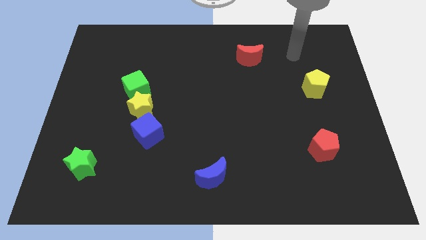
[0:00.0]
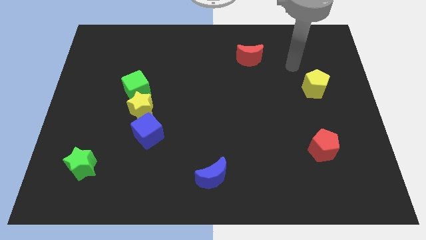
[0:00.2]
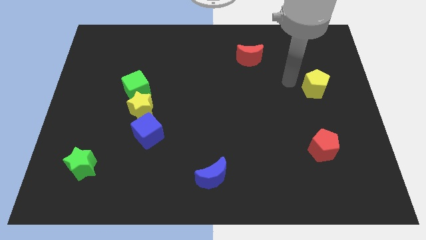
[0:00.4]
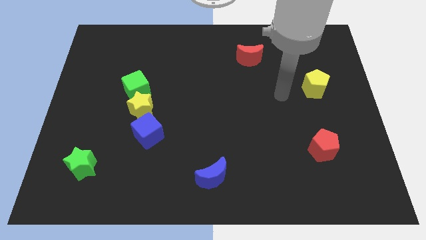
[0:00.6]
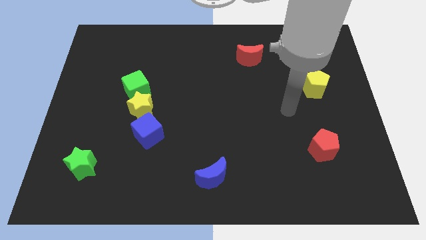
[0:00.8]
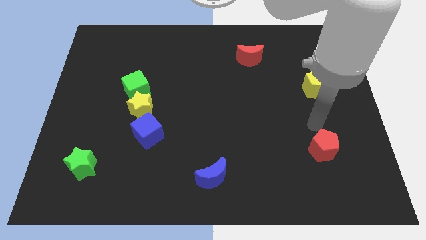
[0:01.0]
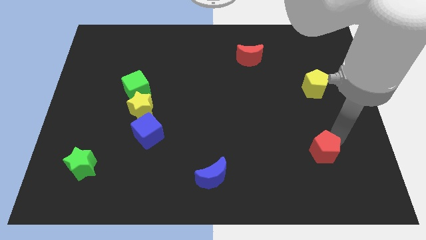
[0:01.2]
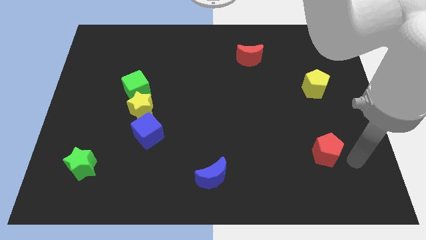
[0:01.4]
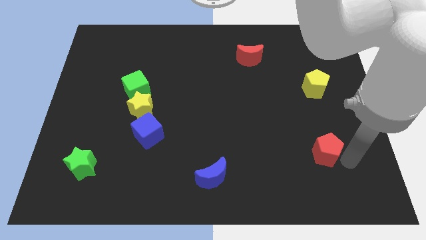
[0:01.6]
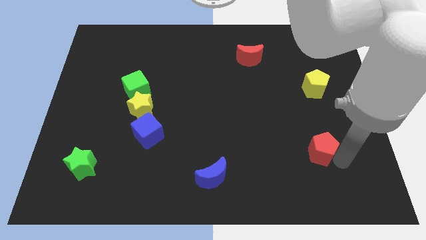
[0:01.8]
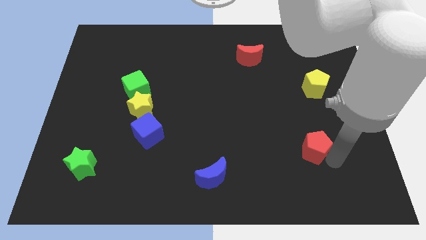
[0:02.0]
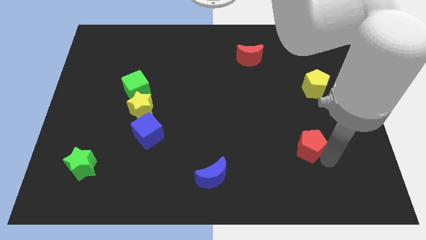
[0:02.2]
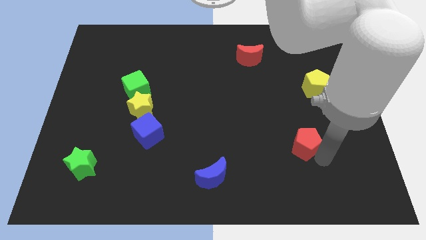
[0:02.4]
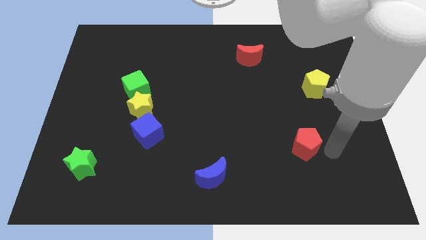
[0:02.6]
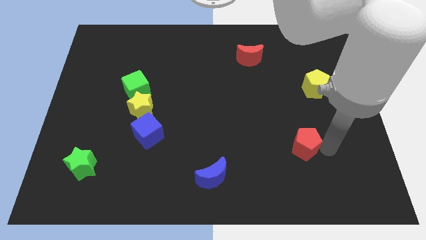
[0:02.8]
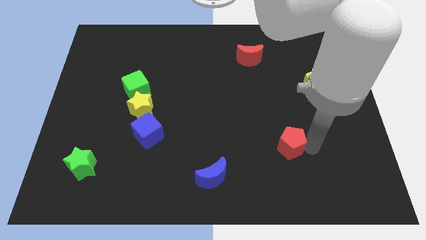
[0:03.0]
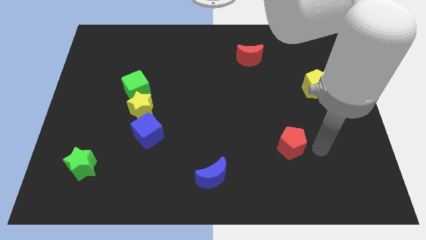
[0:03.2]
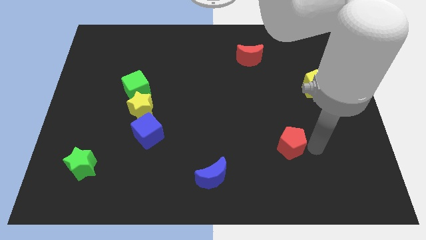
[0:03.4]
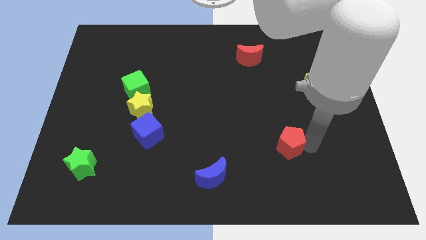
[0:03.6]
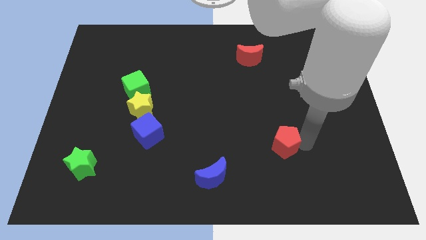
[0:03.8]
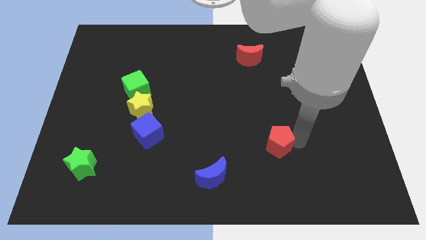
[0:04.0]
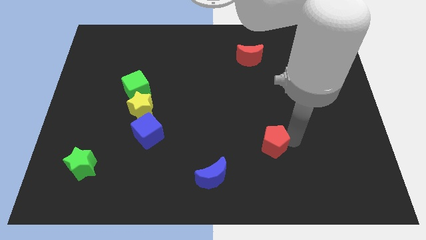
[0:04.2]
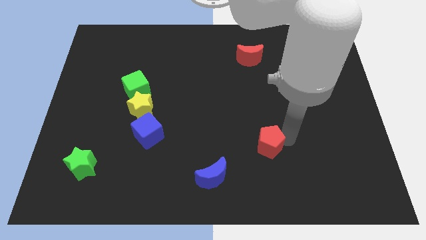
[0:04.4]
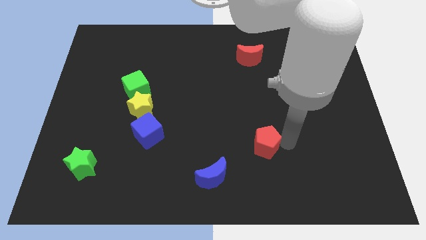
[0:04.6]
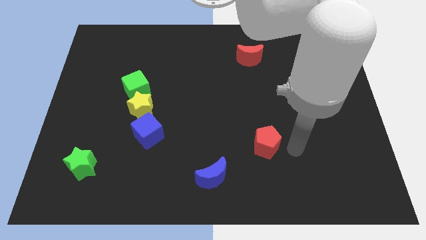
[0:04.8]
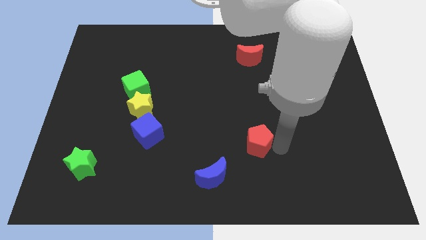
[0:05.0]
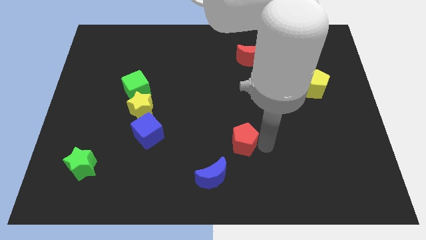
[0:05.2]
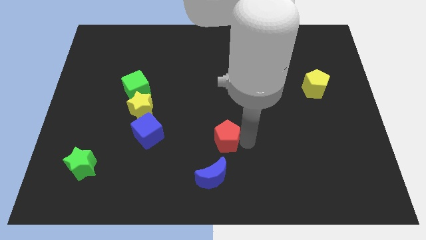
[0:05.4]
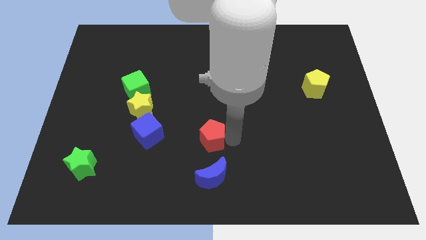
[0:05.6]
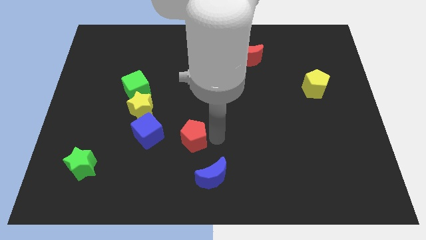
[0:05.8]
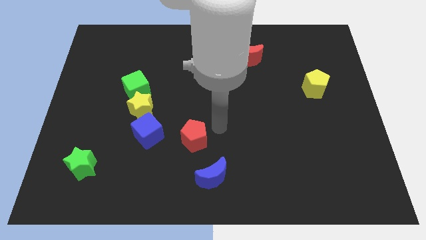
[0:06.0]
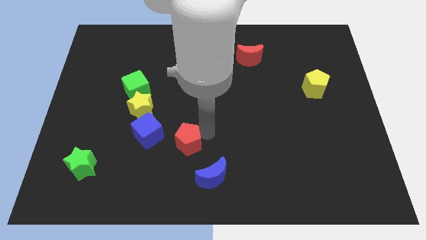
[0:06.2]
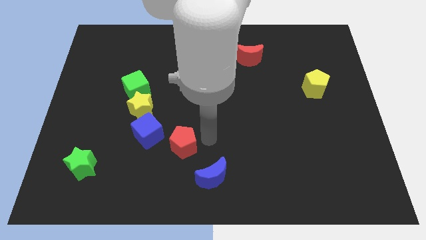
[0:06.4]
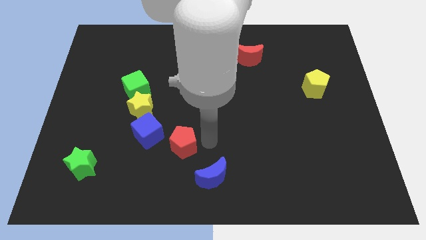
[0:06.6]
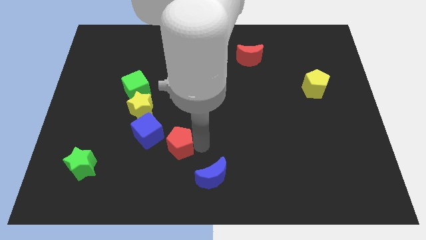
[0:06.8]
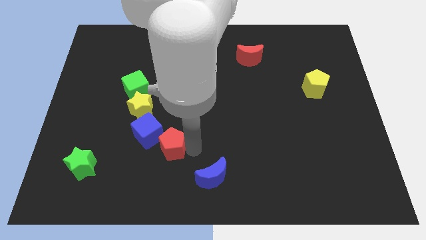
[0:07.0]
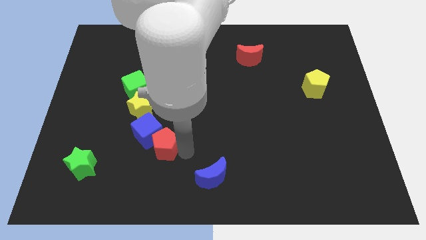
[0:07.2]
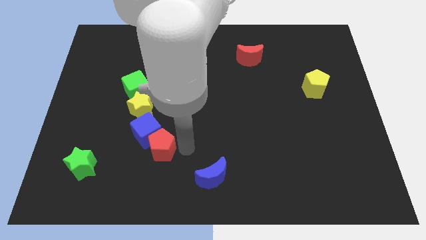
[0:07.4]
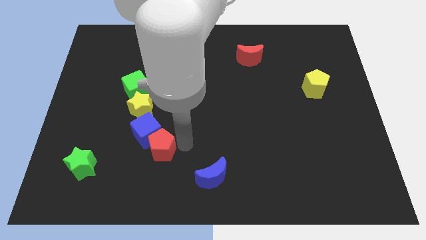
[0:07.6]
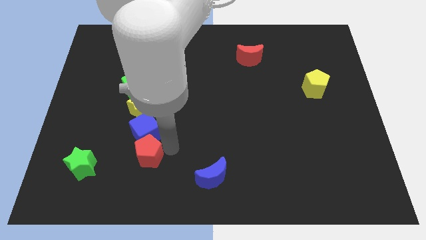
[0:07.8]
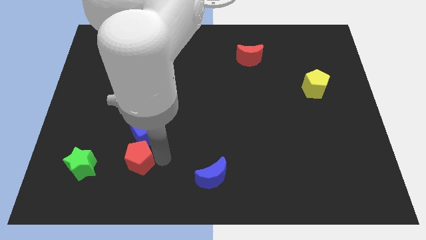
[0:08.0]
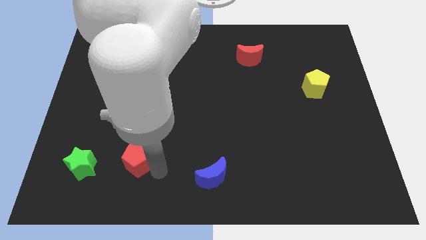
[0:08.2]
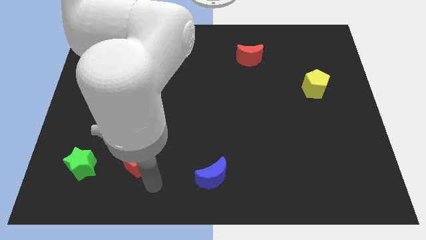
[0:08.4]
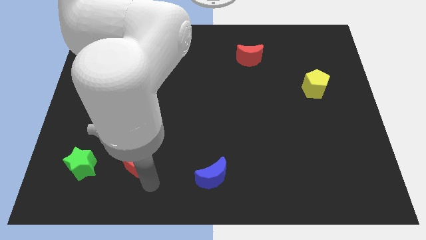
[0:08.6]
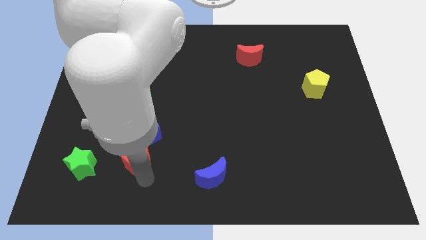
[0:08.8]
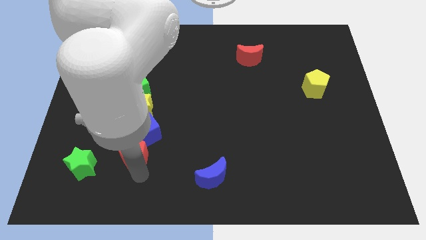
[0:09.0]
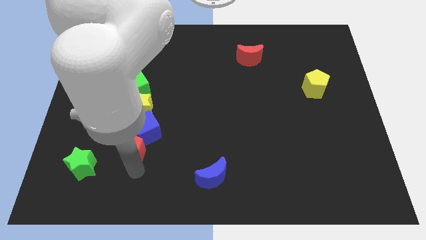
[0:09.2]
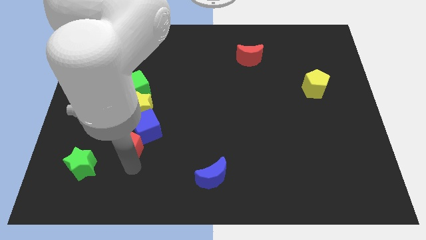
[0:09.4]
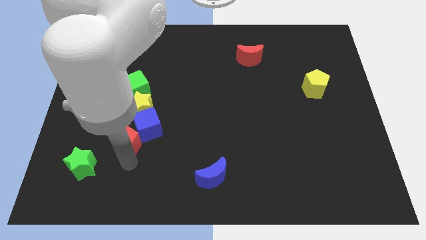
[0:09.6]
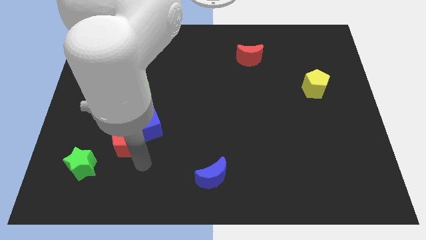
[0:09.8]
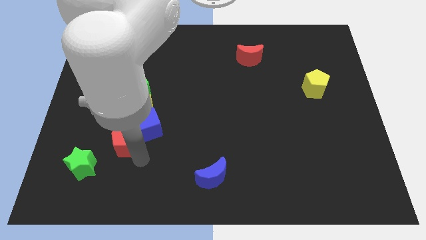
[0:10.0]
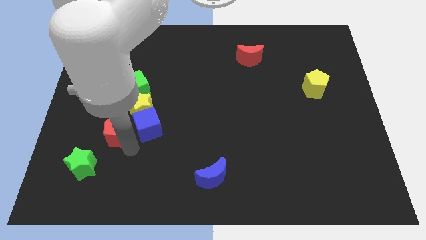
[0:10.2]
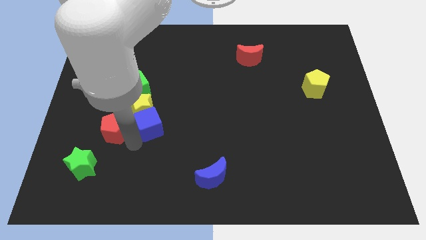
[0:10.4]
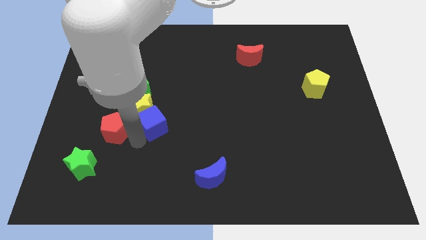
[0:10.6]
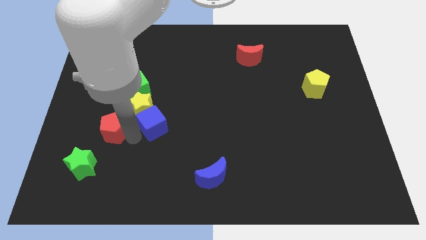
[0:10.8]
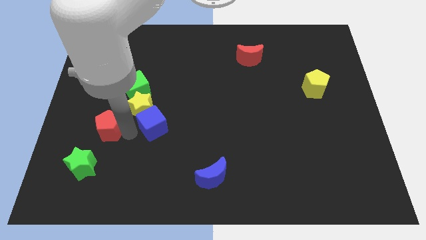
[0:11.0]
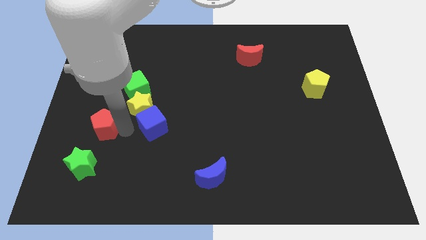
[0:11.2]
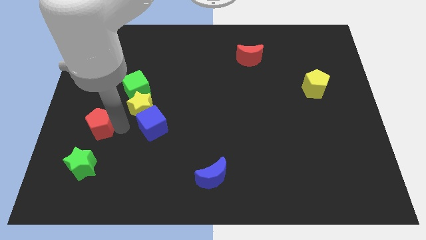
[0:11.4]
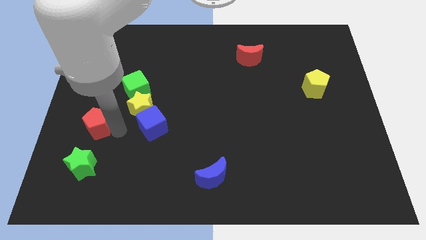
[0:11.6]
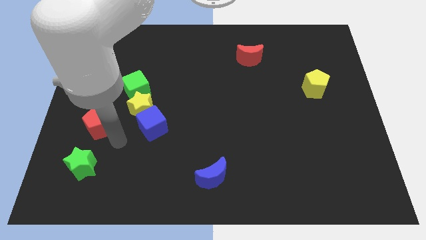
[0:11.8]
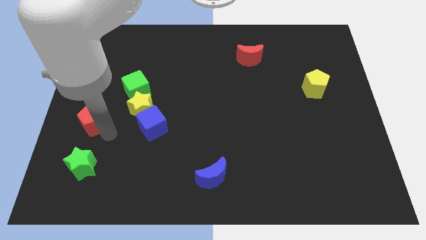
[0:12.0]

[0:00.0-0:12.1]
move the red pentagon to the left side

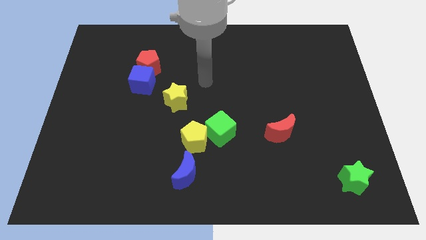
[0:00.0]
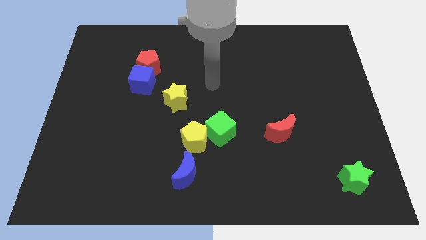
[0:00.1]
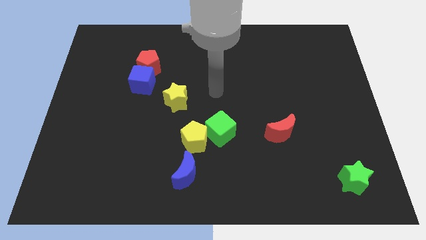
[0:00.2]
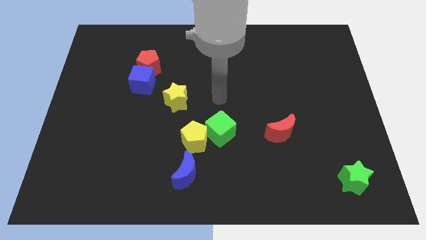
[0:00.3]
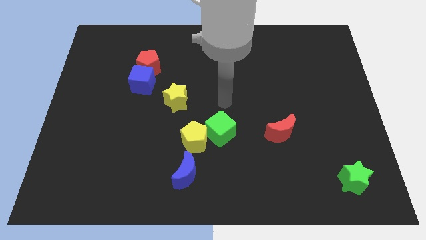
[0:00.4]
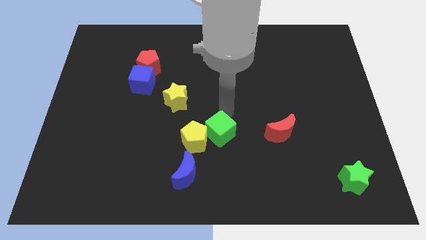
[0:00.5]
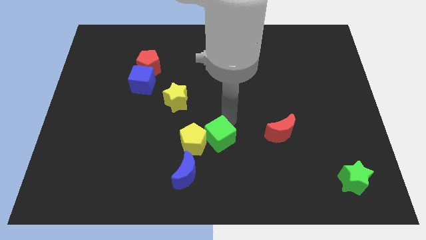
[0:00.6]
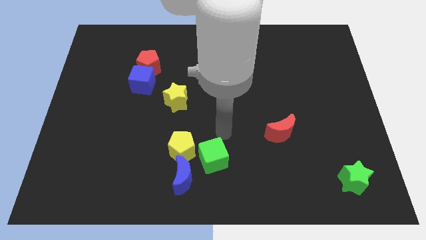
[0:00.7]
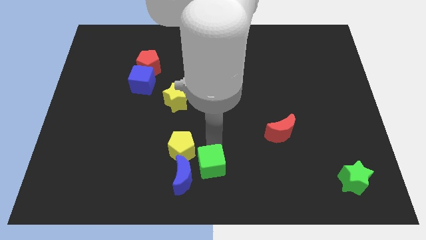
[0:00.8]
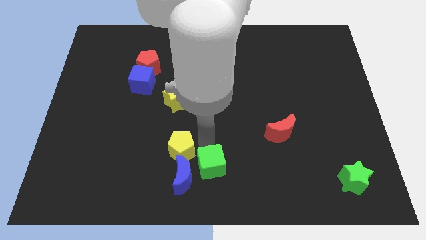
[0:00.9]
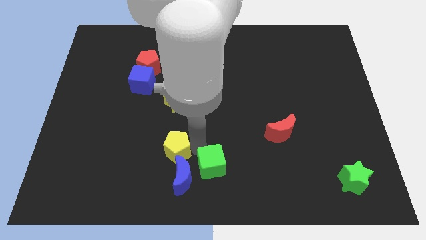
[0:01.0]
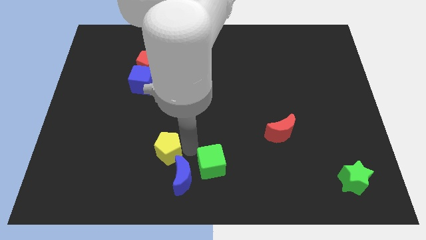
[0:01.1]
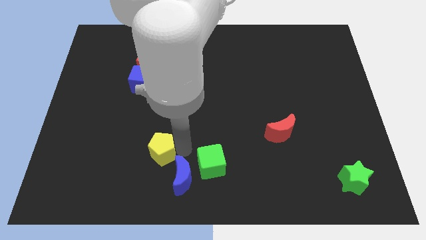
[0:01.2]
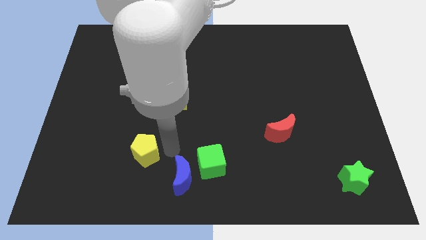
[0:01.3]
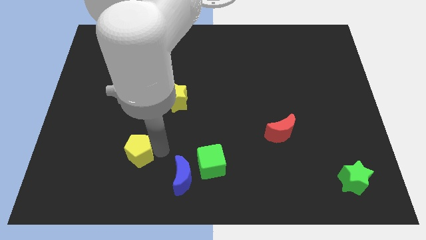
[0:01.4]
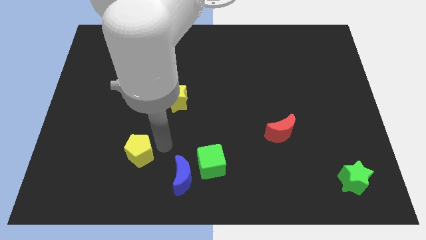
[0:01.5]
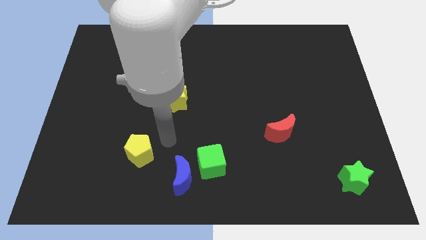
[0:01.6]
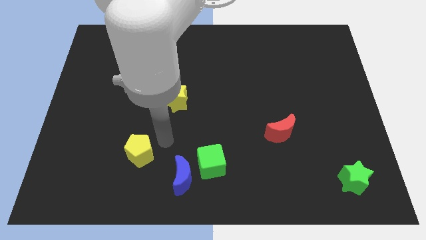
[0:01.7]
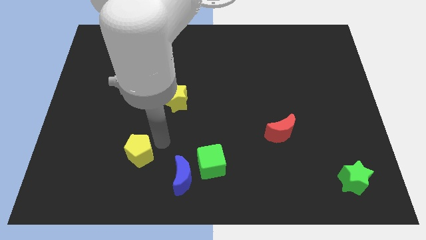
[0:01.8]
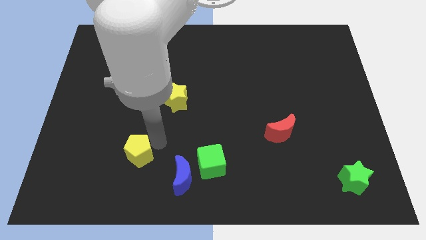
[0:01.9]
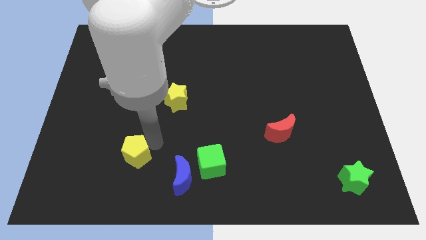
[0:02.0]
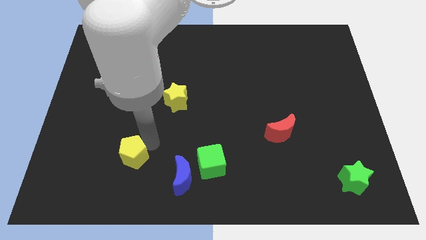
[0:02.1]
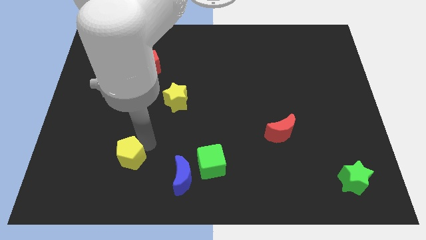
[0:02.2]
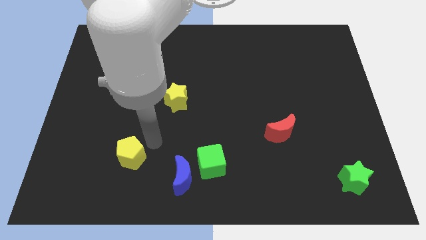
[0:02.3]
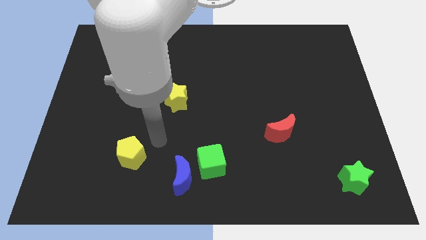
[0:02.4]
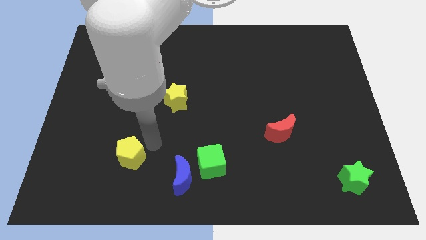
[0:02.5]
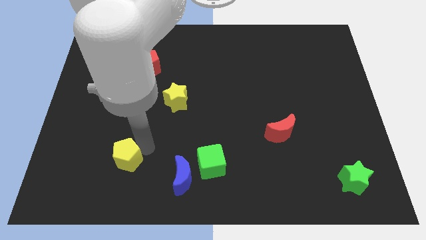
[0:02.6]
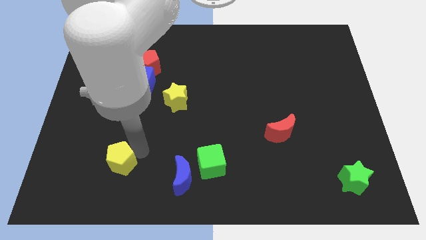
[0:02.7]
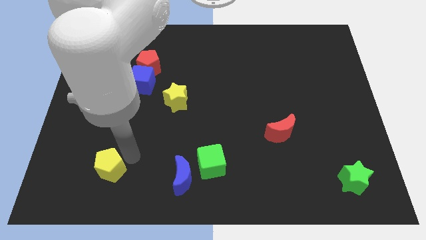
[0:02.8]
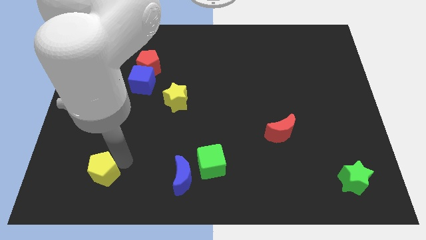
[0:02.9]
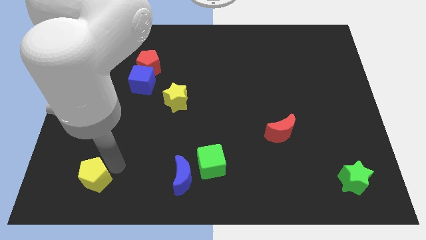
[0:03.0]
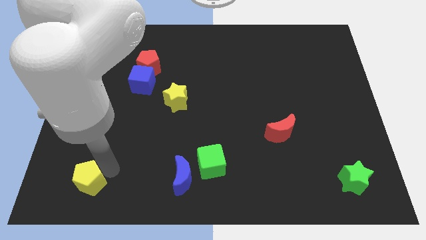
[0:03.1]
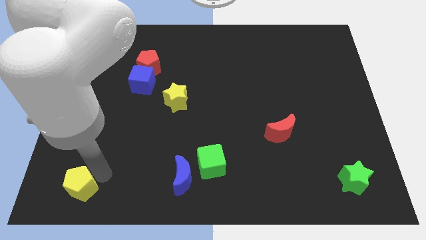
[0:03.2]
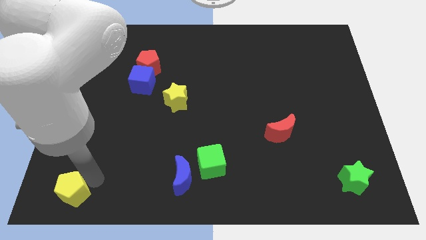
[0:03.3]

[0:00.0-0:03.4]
put the yellow pentagon to the lower left corner
